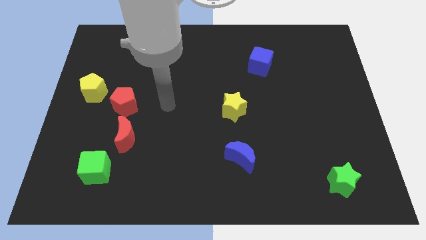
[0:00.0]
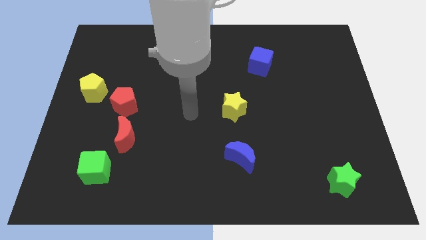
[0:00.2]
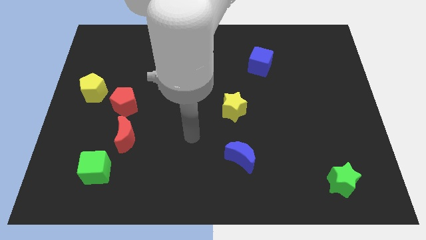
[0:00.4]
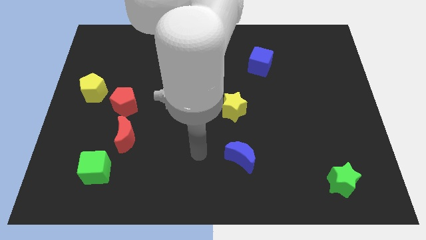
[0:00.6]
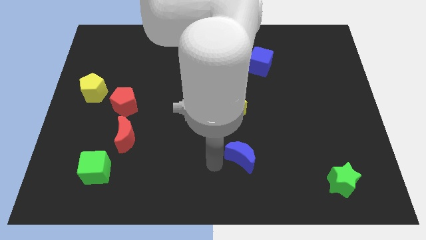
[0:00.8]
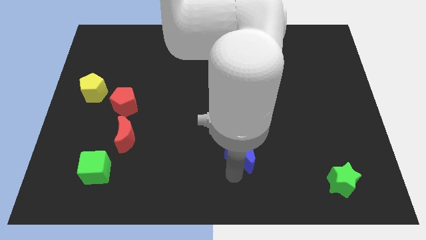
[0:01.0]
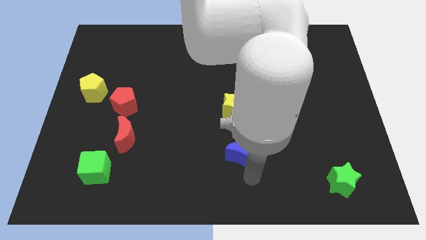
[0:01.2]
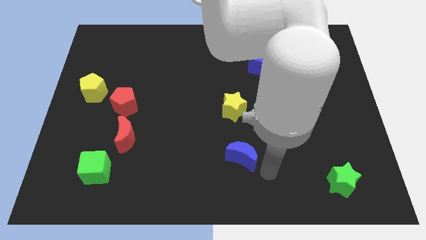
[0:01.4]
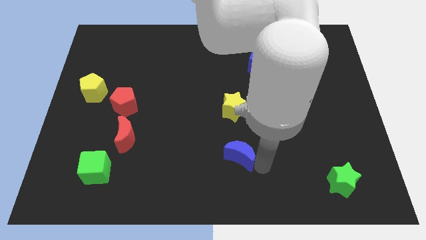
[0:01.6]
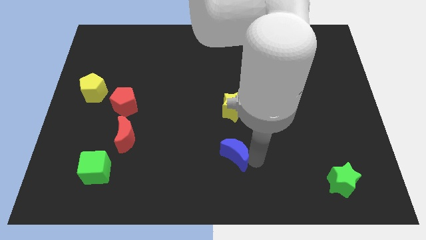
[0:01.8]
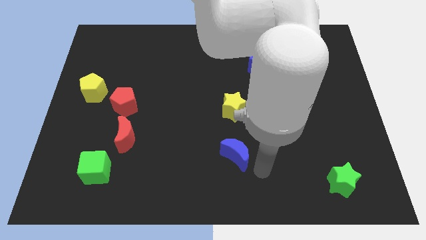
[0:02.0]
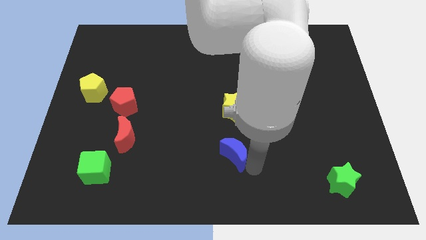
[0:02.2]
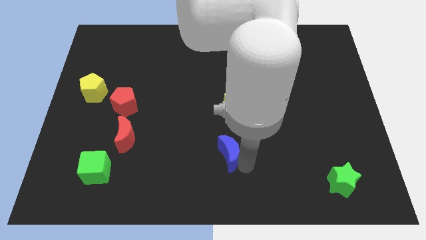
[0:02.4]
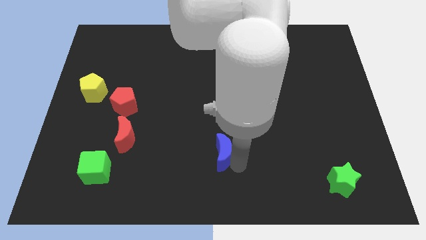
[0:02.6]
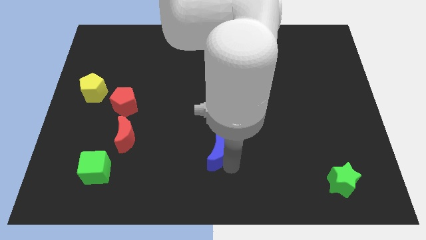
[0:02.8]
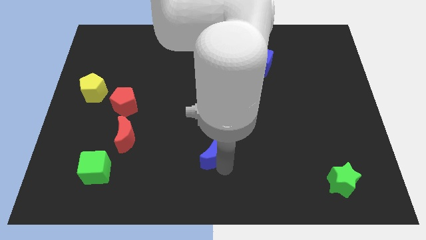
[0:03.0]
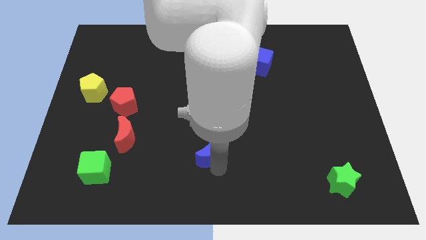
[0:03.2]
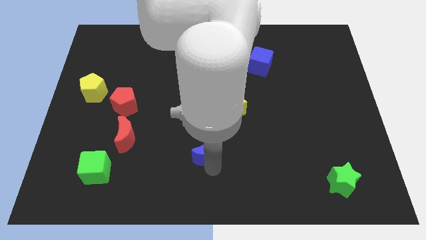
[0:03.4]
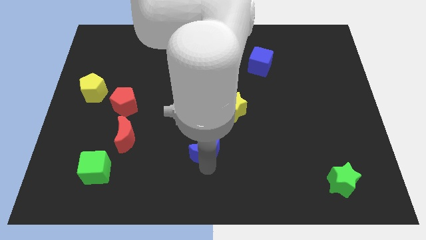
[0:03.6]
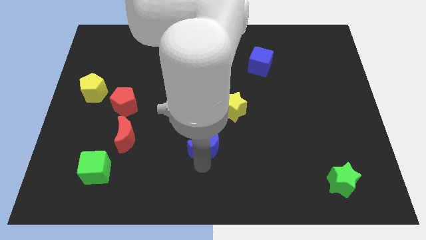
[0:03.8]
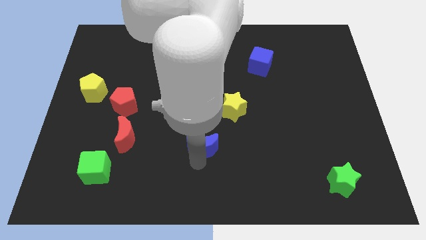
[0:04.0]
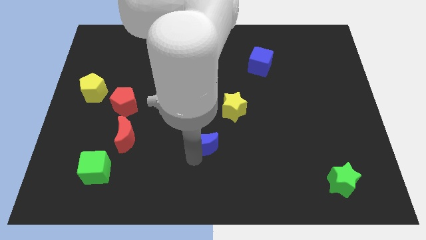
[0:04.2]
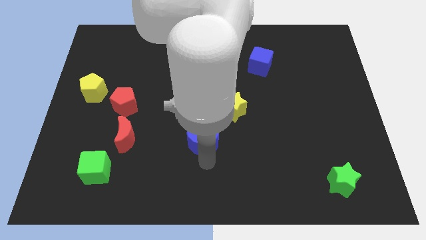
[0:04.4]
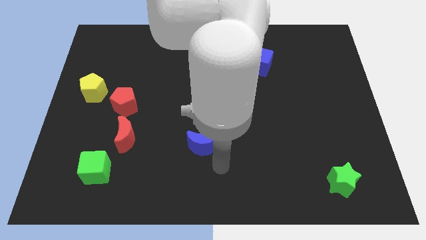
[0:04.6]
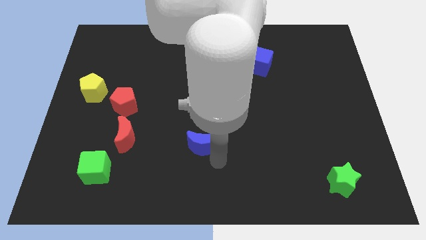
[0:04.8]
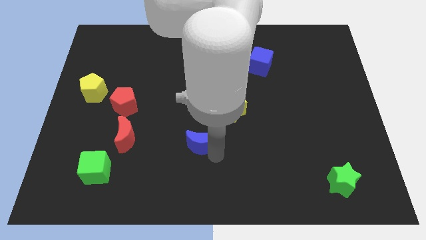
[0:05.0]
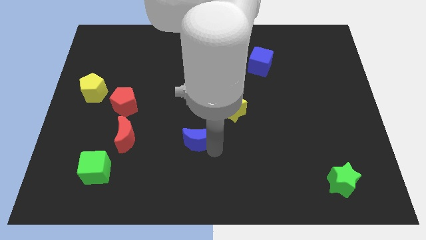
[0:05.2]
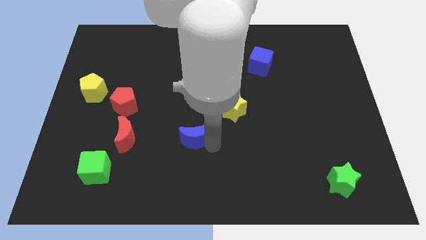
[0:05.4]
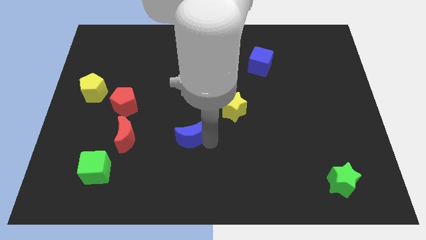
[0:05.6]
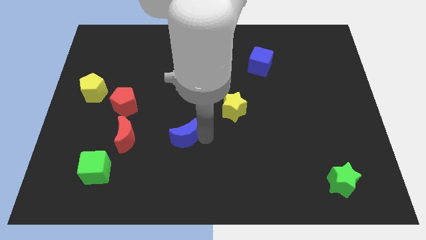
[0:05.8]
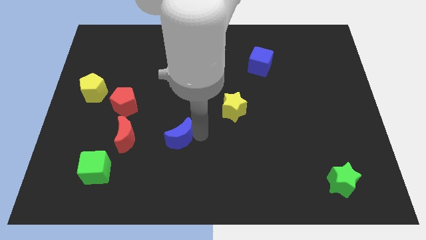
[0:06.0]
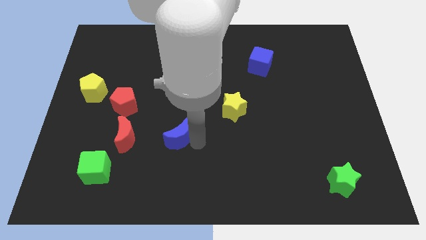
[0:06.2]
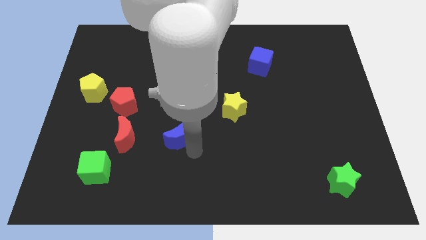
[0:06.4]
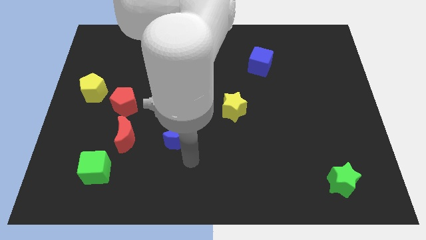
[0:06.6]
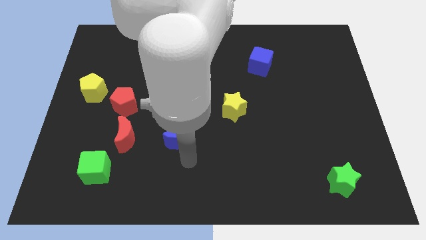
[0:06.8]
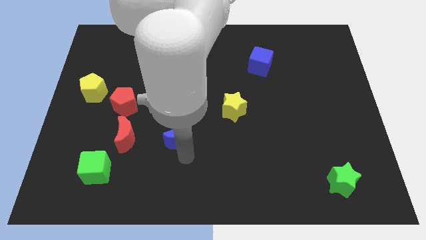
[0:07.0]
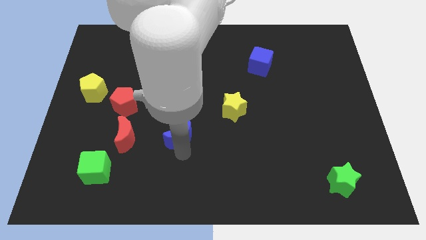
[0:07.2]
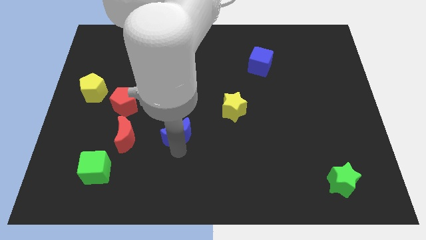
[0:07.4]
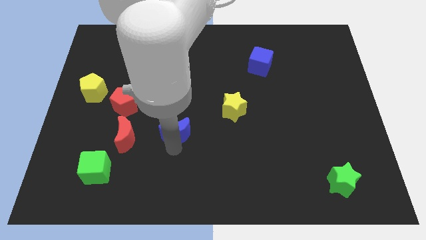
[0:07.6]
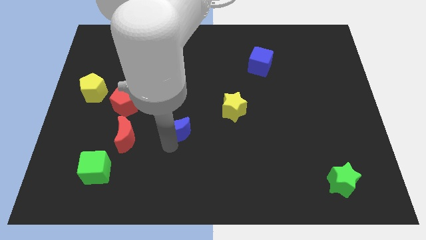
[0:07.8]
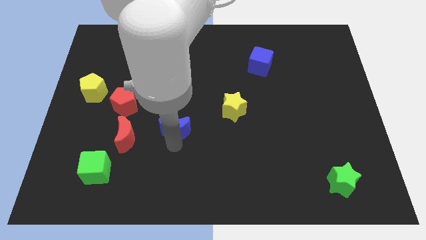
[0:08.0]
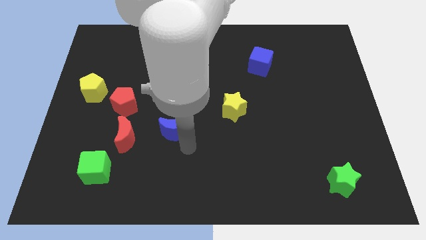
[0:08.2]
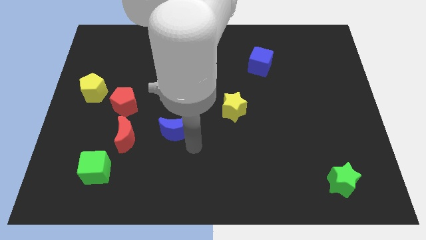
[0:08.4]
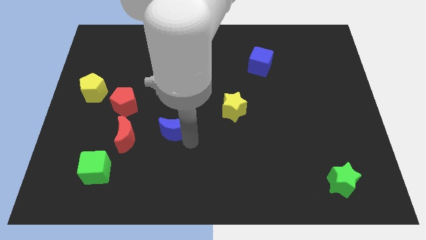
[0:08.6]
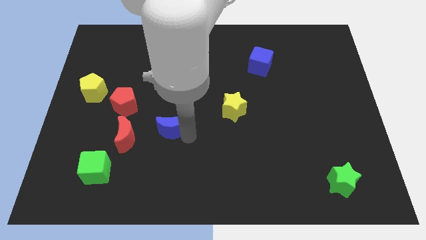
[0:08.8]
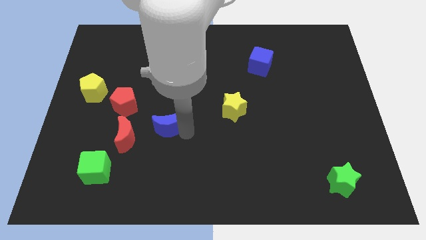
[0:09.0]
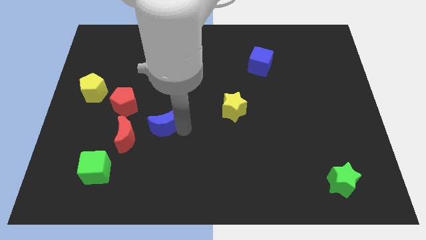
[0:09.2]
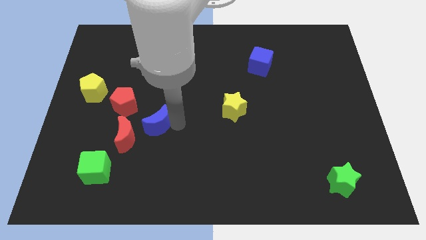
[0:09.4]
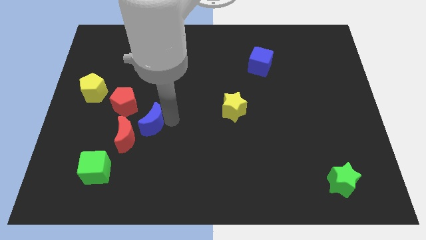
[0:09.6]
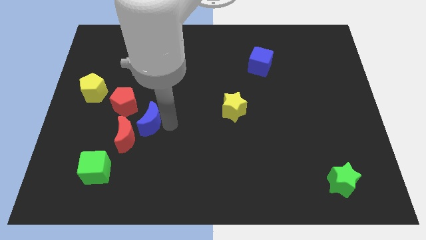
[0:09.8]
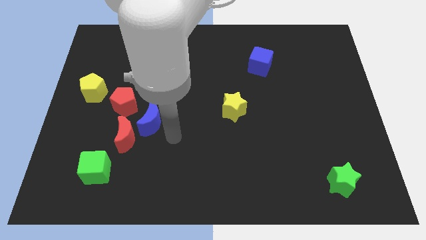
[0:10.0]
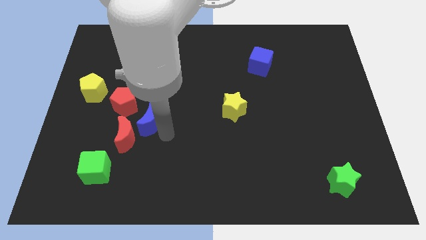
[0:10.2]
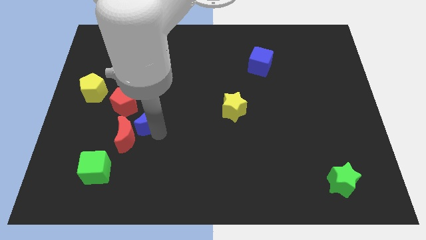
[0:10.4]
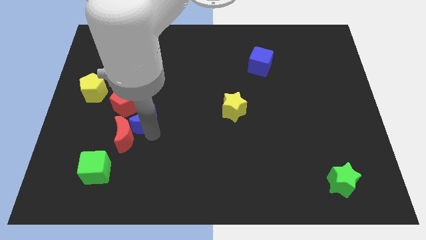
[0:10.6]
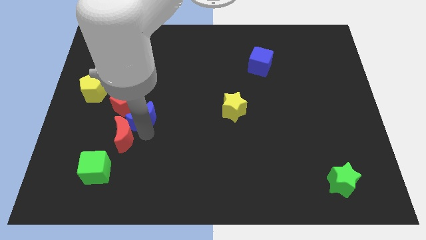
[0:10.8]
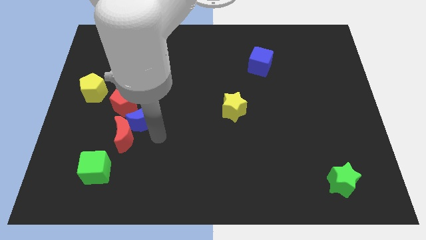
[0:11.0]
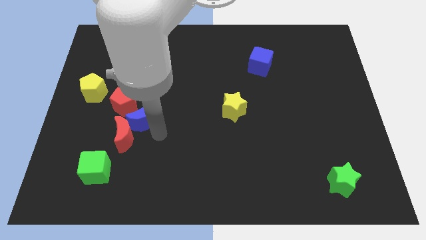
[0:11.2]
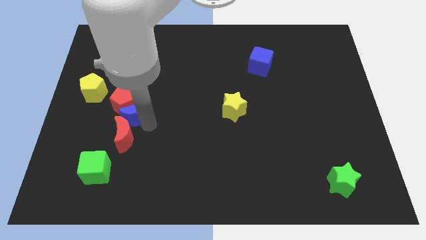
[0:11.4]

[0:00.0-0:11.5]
move the blue moon towards the red pentagon

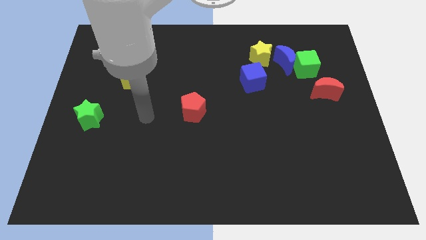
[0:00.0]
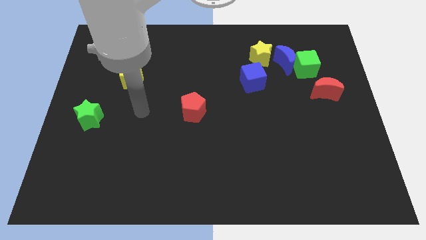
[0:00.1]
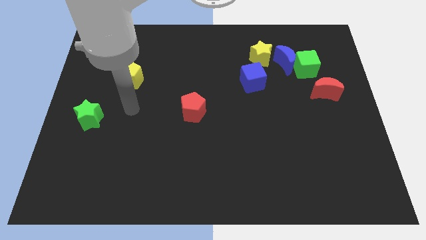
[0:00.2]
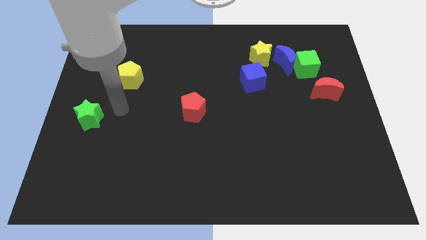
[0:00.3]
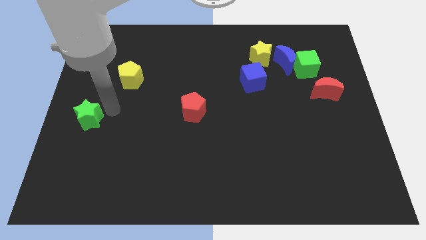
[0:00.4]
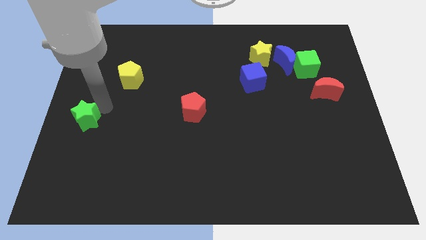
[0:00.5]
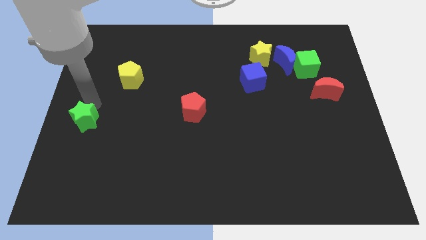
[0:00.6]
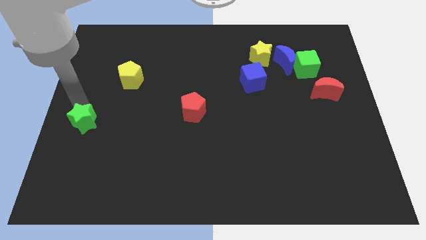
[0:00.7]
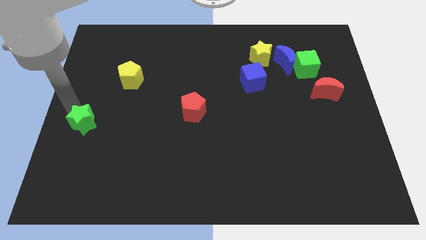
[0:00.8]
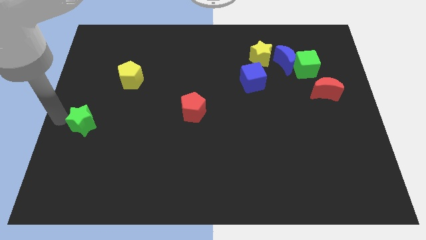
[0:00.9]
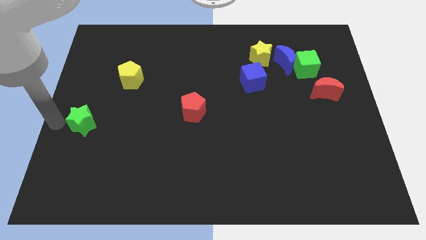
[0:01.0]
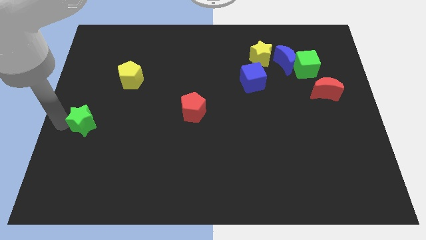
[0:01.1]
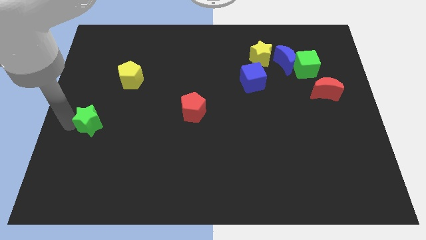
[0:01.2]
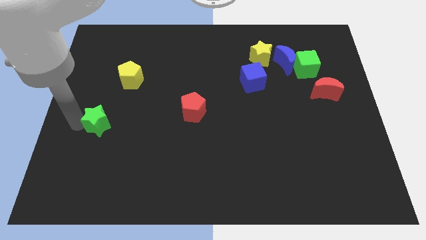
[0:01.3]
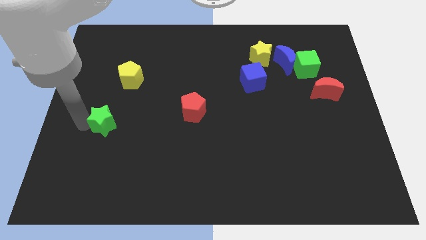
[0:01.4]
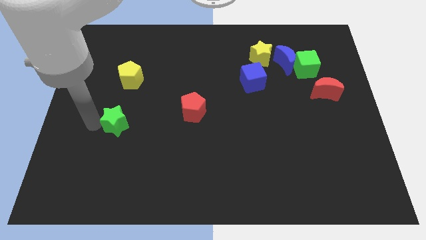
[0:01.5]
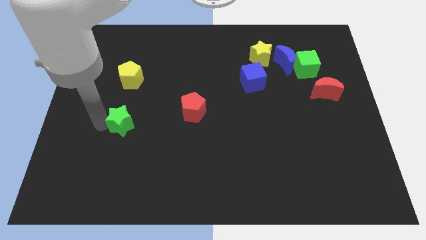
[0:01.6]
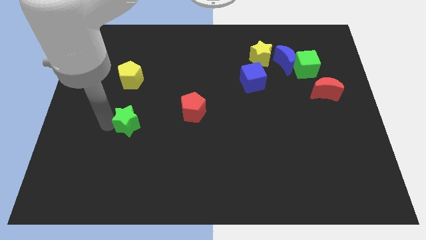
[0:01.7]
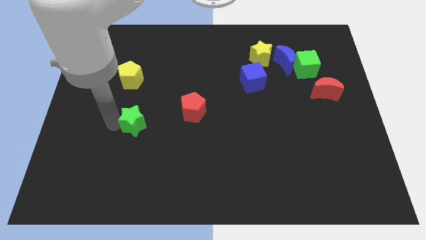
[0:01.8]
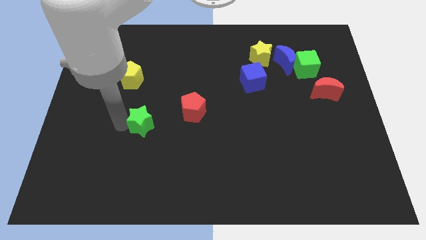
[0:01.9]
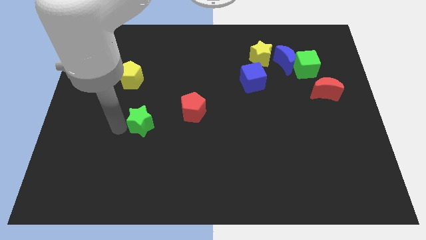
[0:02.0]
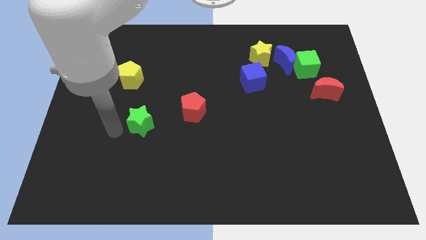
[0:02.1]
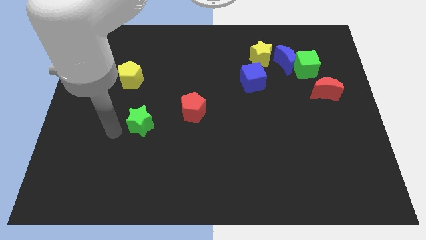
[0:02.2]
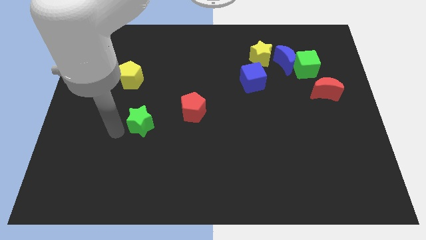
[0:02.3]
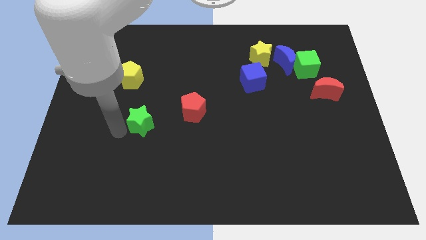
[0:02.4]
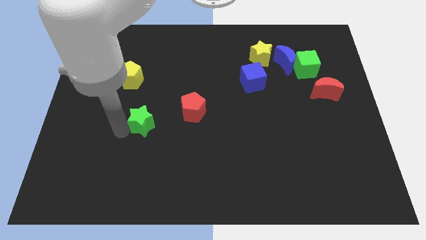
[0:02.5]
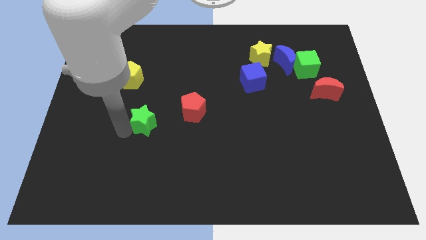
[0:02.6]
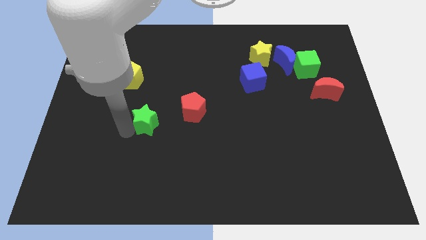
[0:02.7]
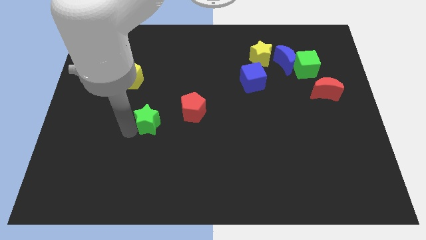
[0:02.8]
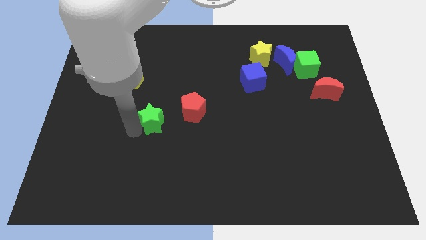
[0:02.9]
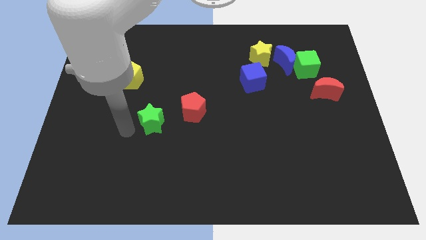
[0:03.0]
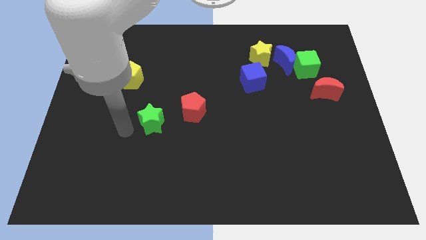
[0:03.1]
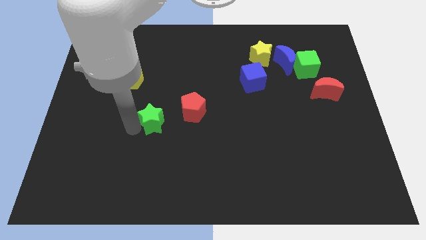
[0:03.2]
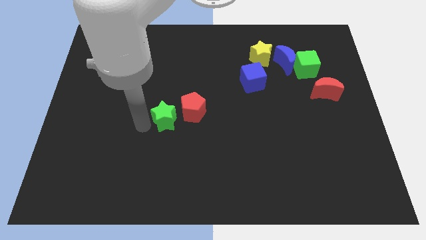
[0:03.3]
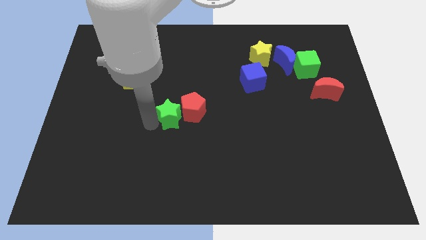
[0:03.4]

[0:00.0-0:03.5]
slide the green star next to the red pentagon
